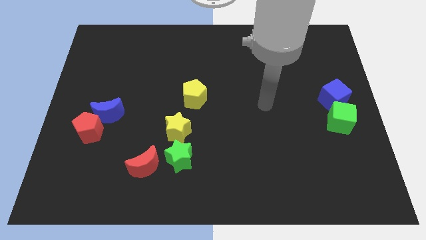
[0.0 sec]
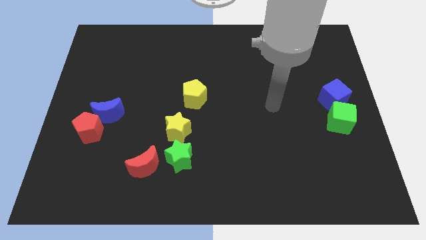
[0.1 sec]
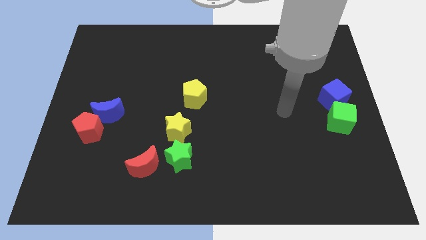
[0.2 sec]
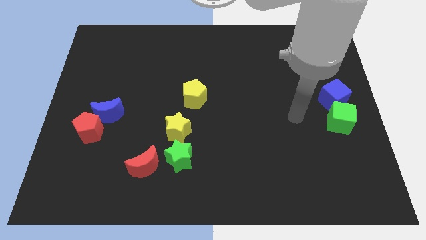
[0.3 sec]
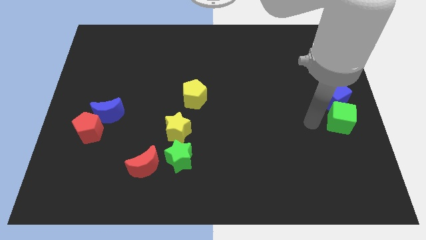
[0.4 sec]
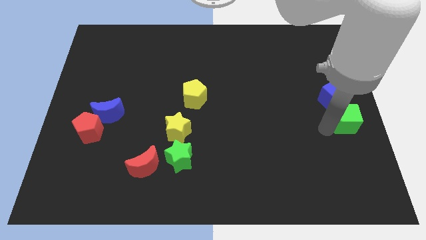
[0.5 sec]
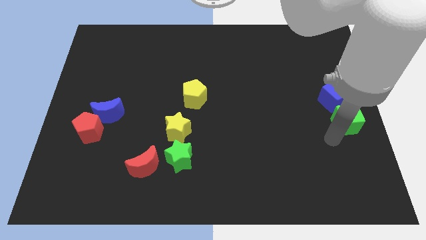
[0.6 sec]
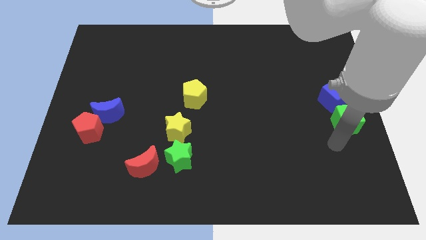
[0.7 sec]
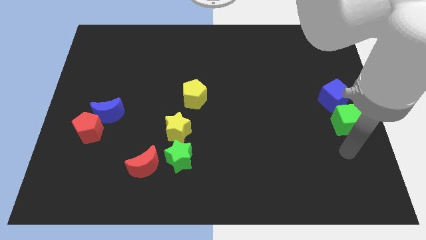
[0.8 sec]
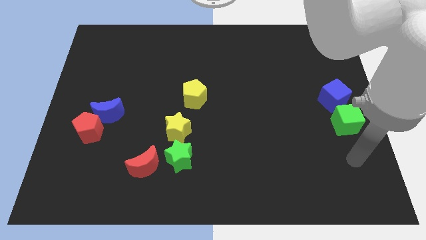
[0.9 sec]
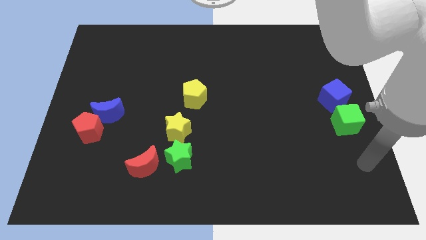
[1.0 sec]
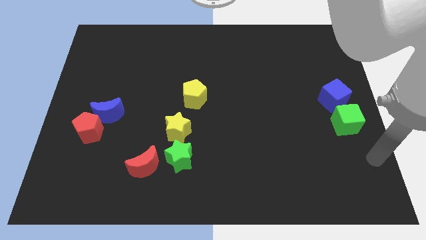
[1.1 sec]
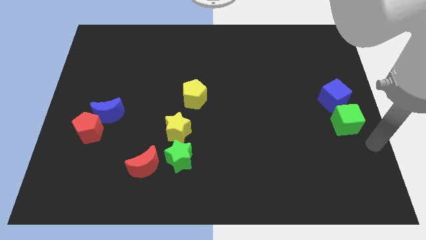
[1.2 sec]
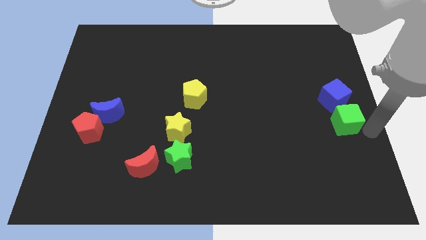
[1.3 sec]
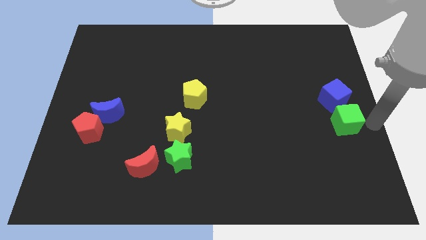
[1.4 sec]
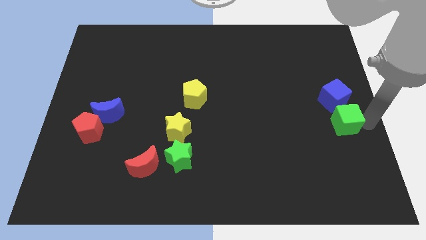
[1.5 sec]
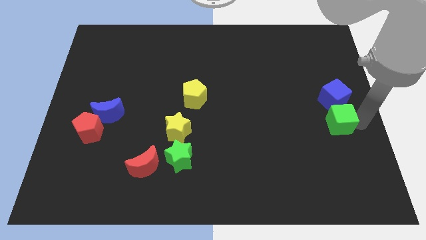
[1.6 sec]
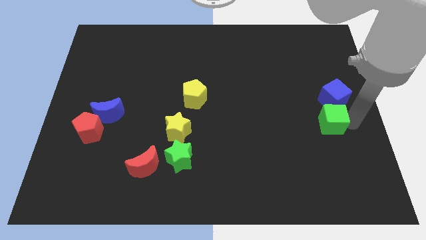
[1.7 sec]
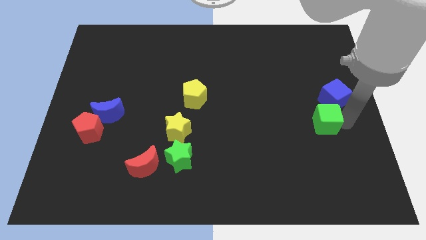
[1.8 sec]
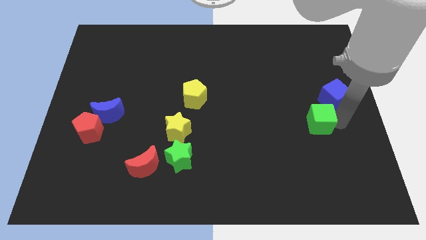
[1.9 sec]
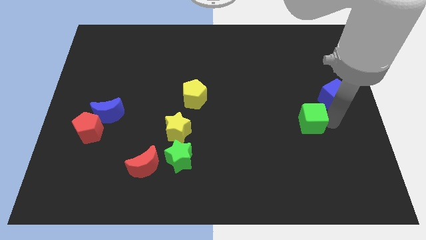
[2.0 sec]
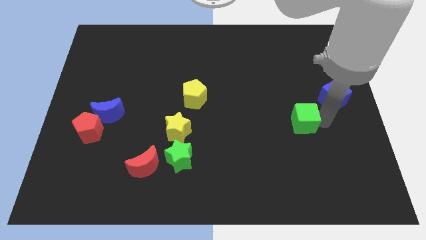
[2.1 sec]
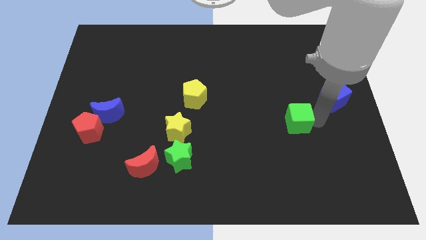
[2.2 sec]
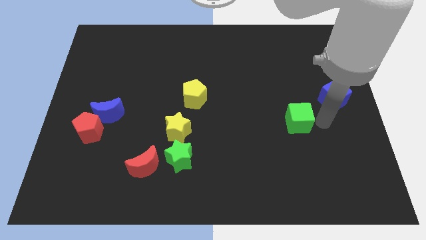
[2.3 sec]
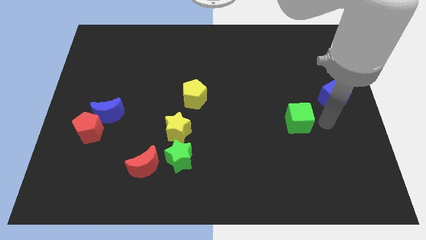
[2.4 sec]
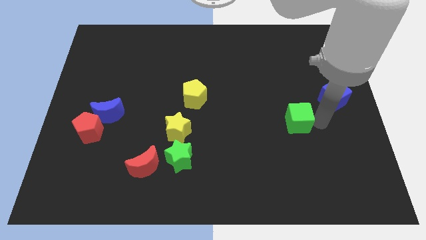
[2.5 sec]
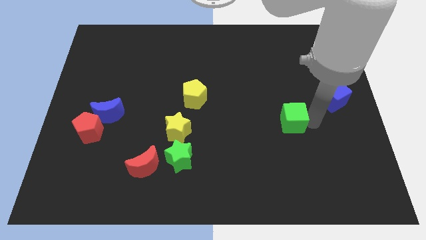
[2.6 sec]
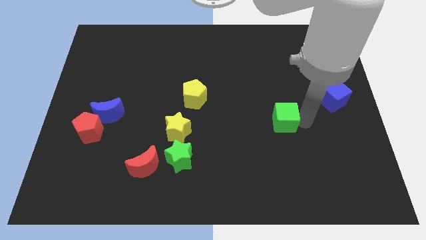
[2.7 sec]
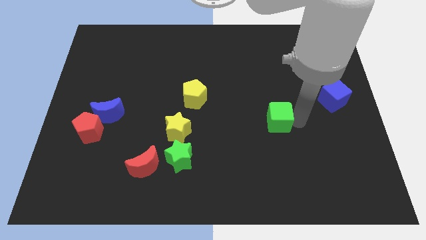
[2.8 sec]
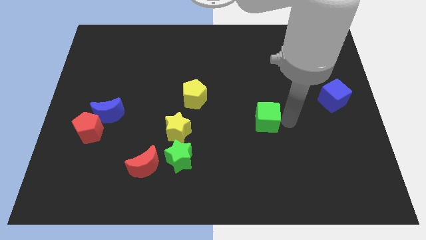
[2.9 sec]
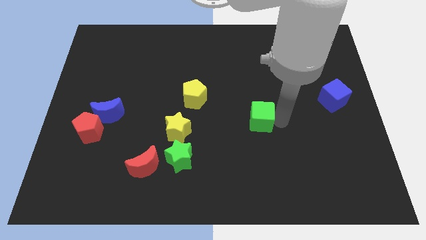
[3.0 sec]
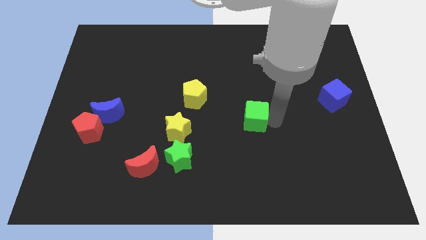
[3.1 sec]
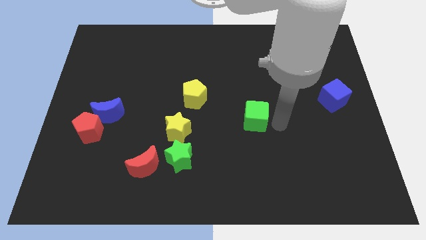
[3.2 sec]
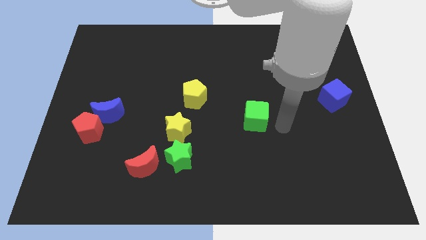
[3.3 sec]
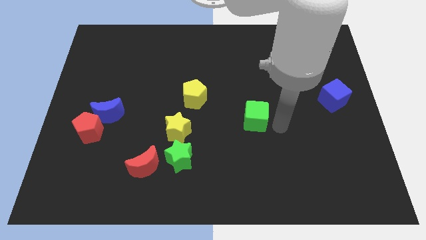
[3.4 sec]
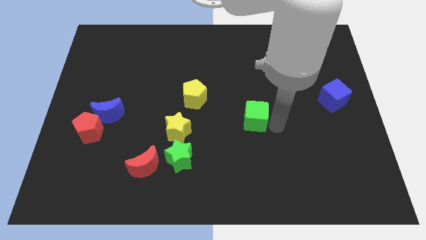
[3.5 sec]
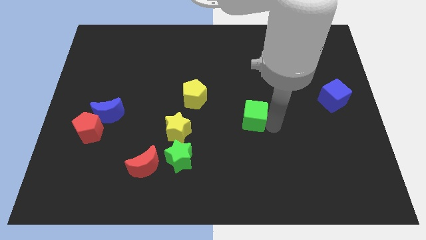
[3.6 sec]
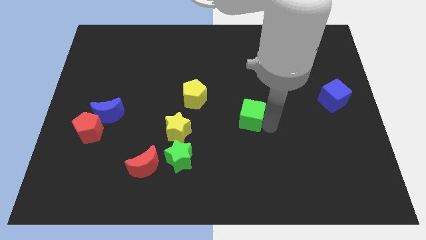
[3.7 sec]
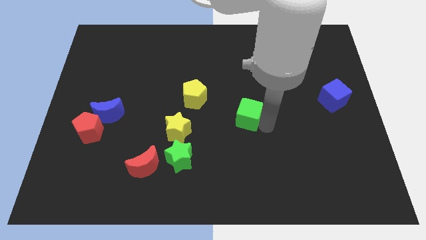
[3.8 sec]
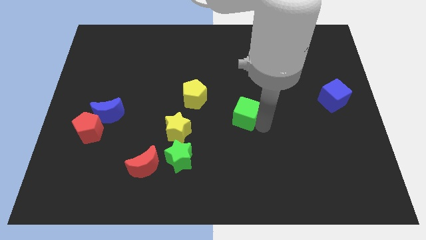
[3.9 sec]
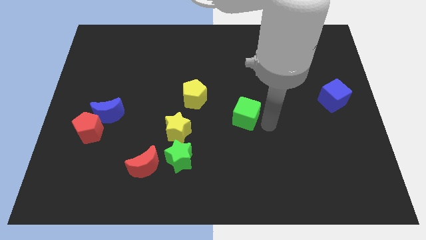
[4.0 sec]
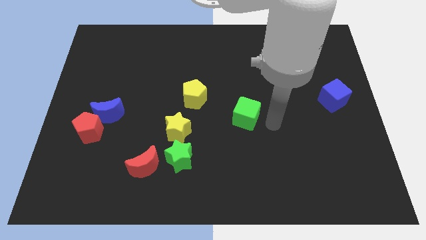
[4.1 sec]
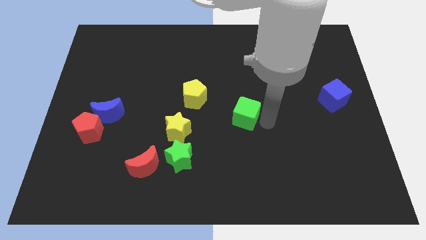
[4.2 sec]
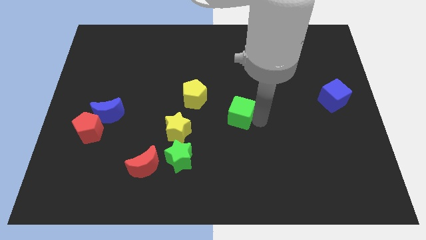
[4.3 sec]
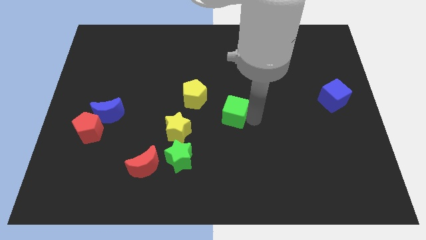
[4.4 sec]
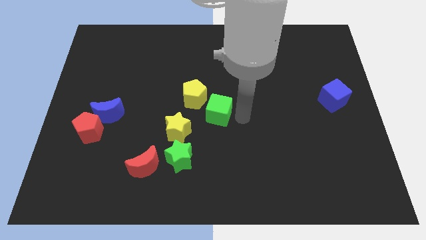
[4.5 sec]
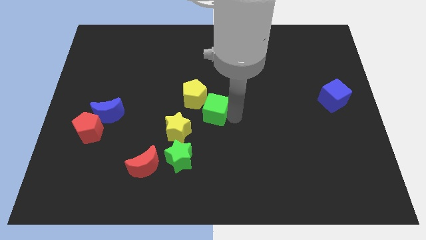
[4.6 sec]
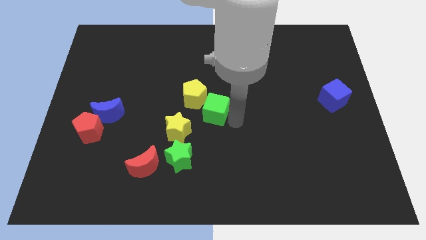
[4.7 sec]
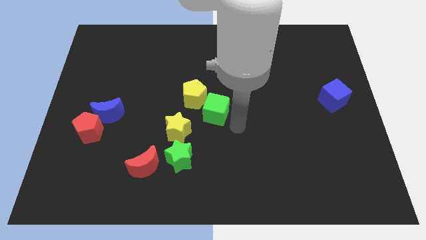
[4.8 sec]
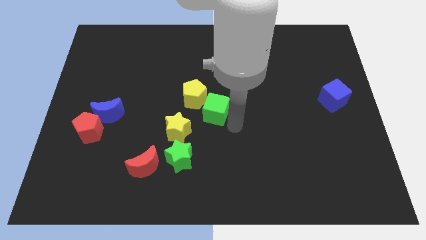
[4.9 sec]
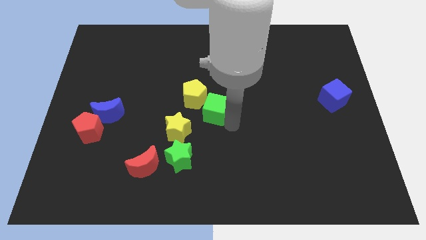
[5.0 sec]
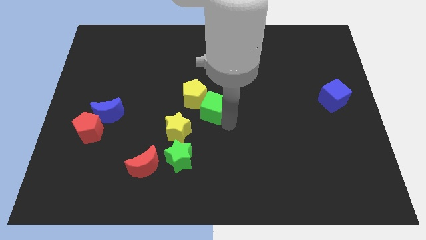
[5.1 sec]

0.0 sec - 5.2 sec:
slide the green cube close to the yellow pentagon

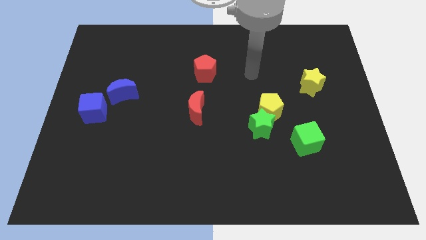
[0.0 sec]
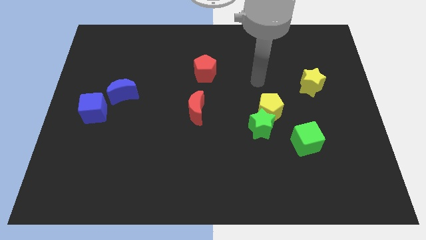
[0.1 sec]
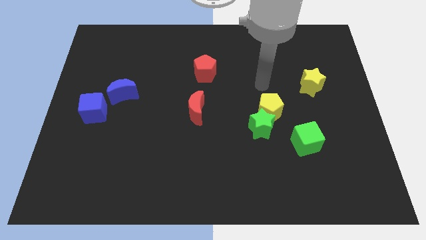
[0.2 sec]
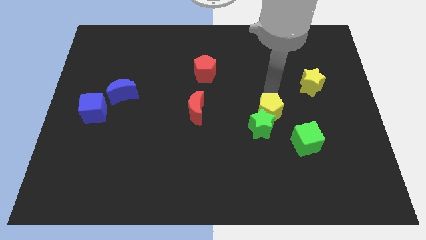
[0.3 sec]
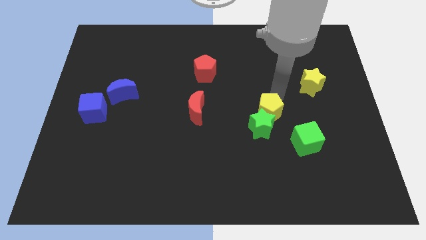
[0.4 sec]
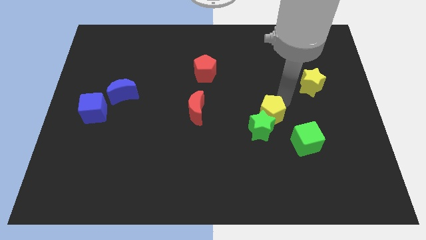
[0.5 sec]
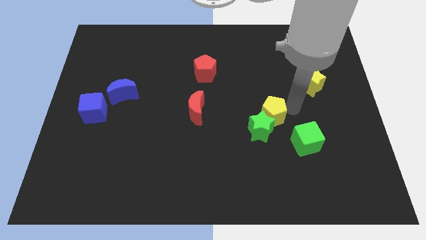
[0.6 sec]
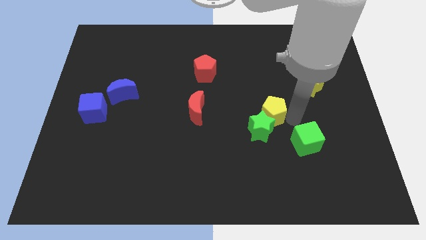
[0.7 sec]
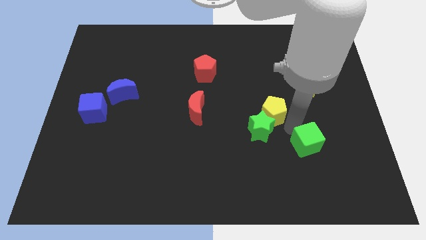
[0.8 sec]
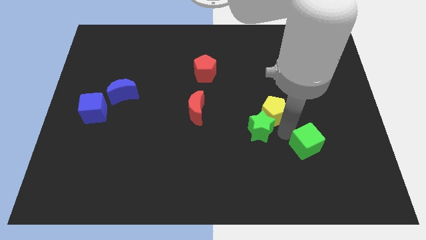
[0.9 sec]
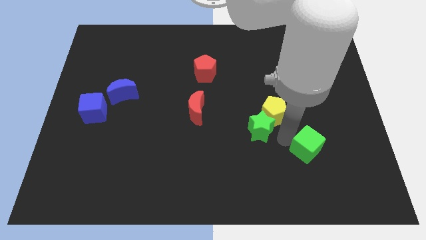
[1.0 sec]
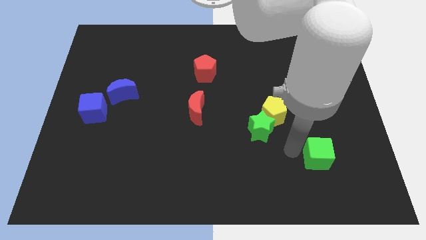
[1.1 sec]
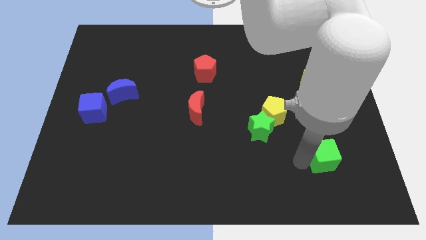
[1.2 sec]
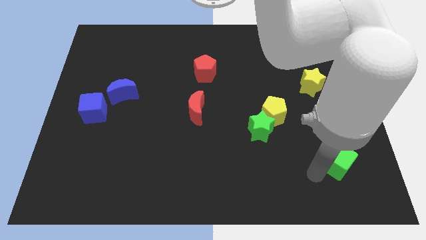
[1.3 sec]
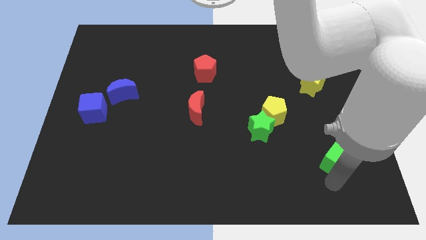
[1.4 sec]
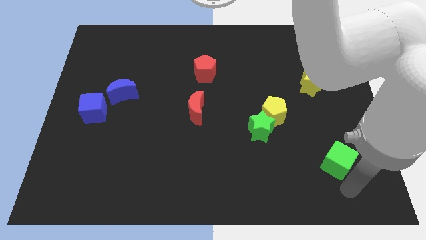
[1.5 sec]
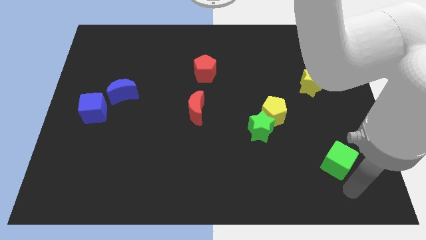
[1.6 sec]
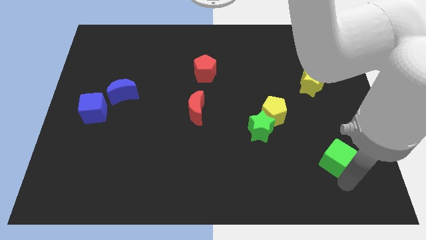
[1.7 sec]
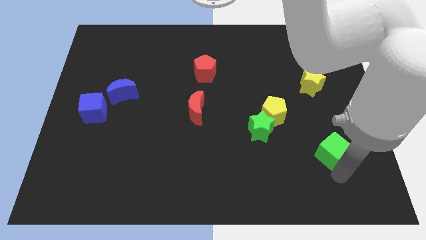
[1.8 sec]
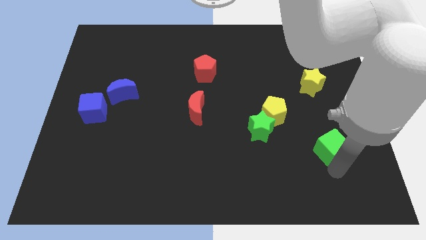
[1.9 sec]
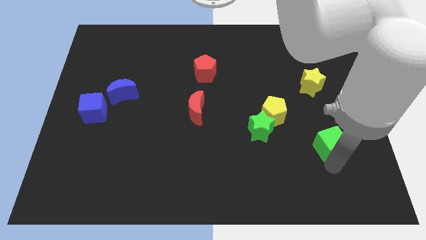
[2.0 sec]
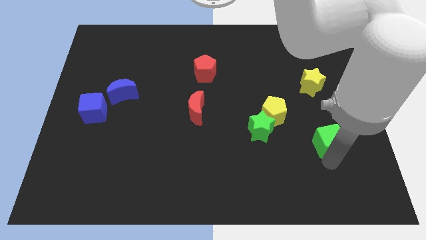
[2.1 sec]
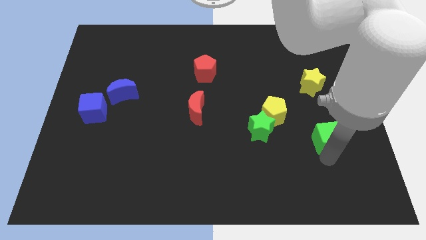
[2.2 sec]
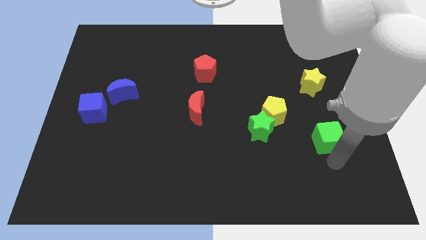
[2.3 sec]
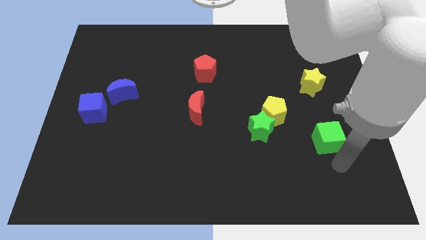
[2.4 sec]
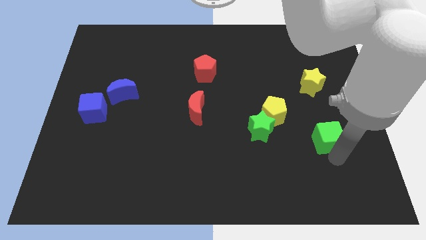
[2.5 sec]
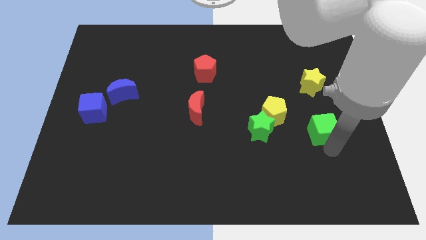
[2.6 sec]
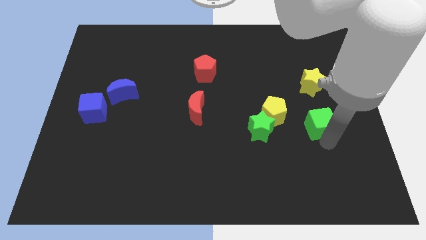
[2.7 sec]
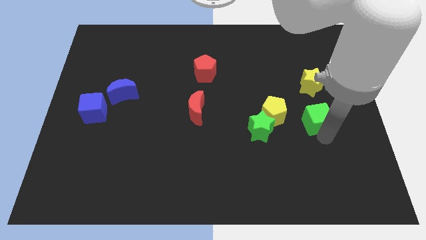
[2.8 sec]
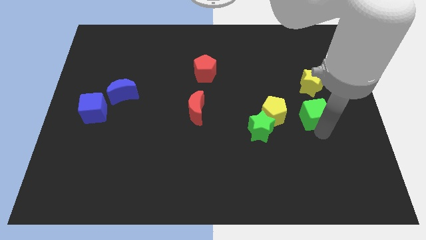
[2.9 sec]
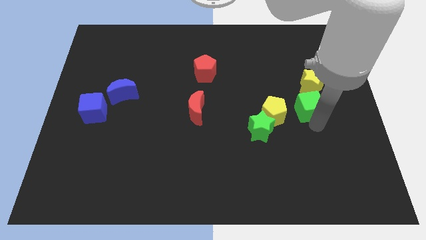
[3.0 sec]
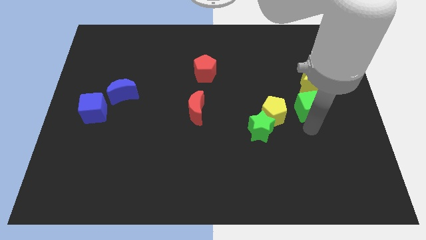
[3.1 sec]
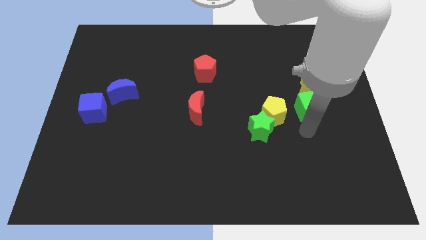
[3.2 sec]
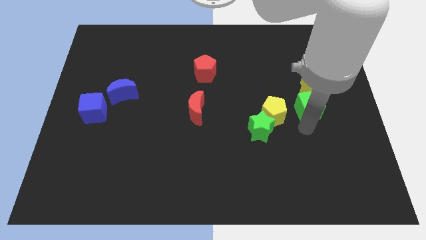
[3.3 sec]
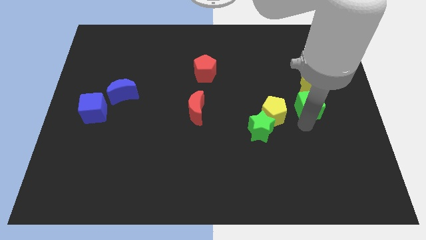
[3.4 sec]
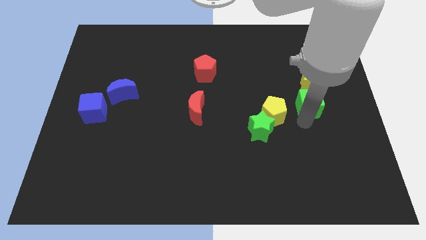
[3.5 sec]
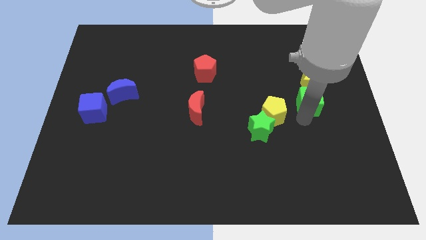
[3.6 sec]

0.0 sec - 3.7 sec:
push the green cube close to the yellow star
